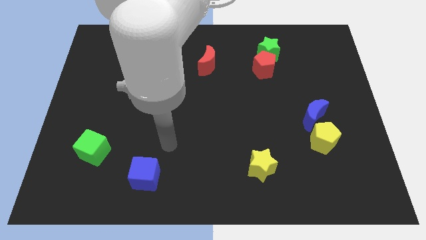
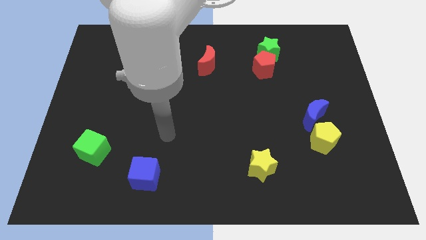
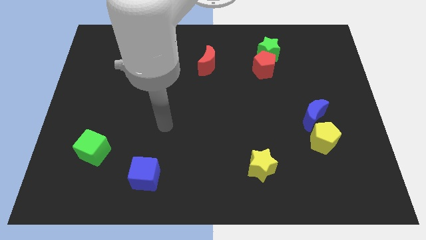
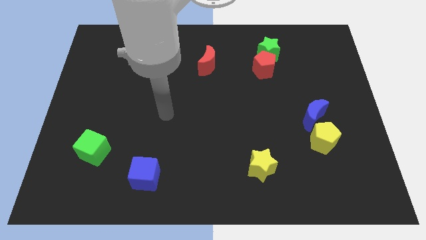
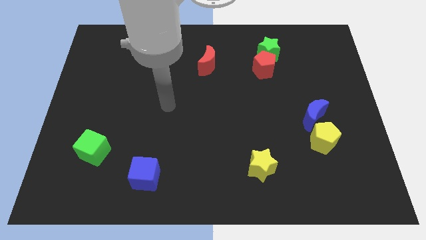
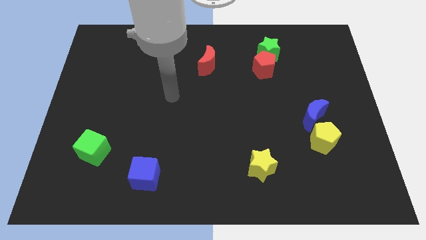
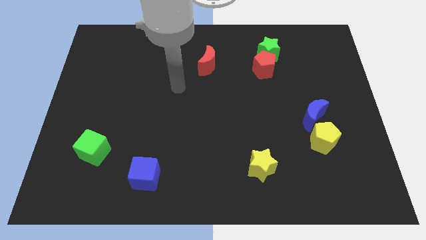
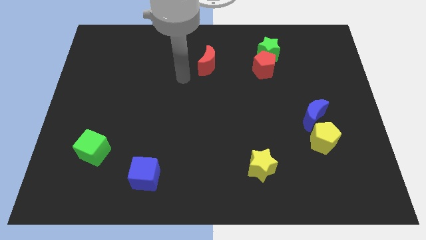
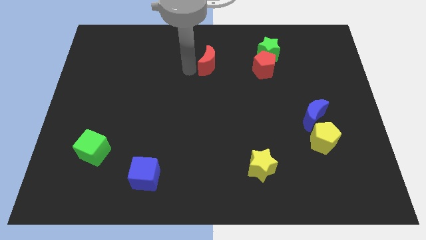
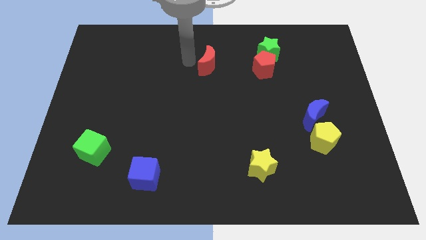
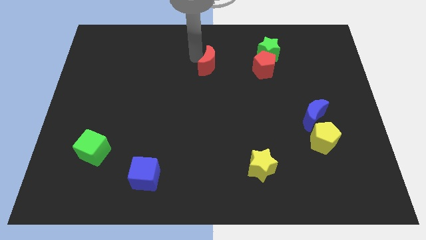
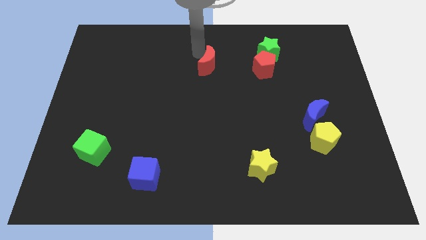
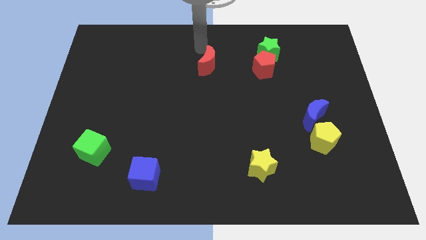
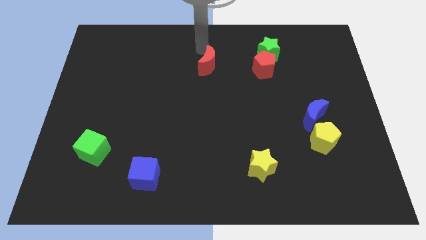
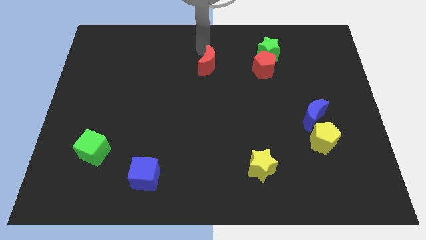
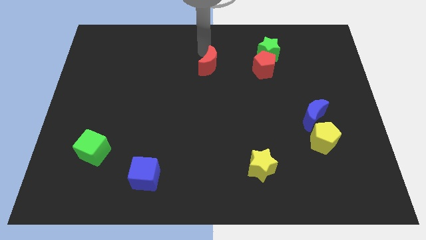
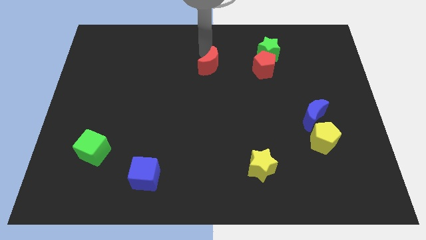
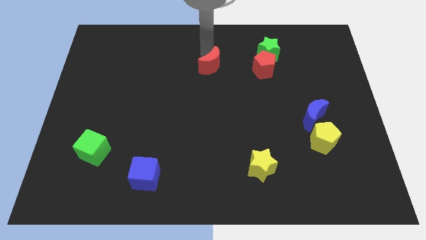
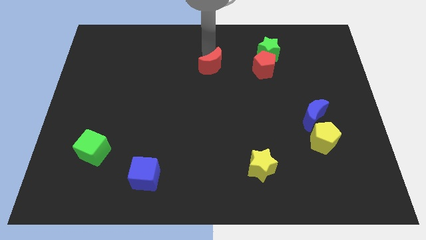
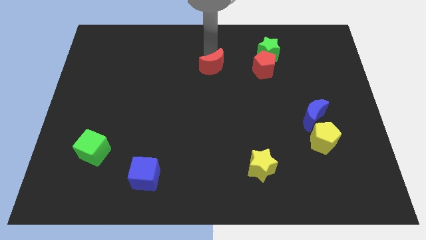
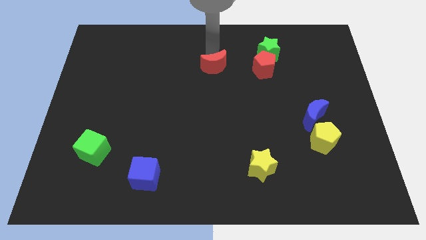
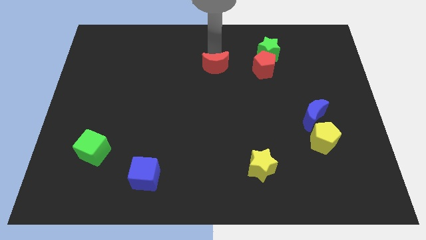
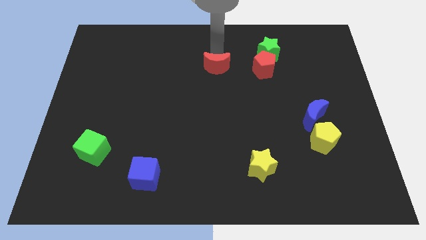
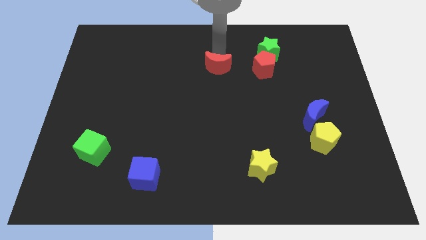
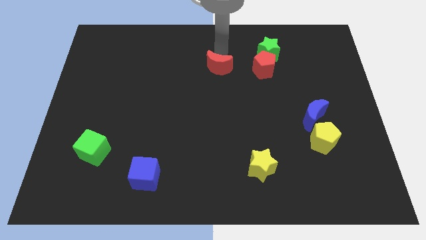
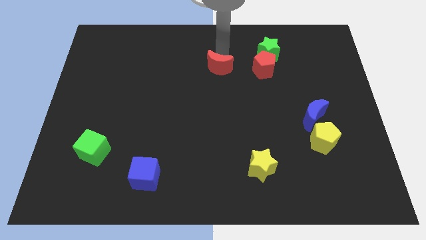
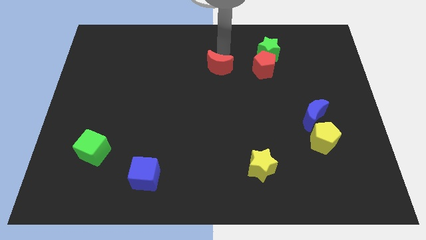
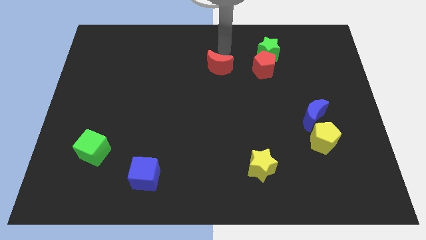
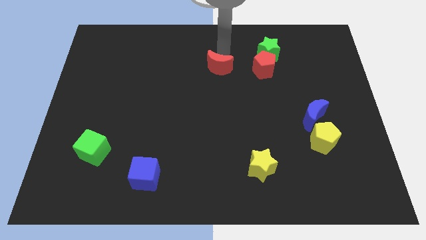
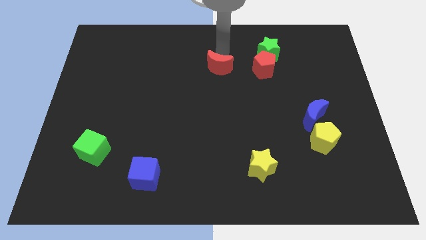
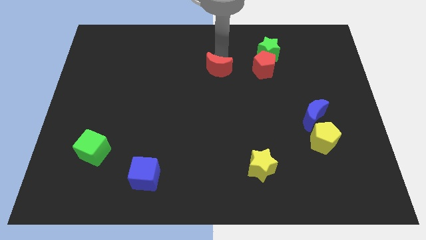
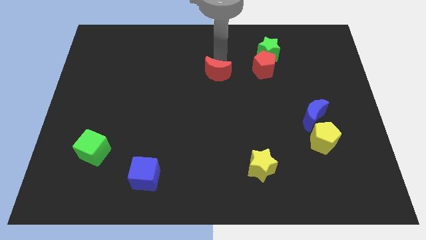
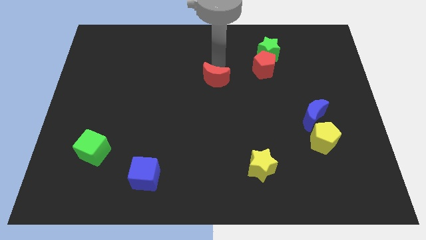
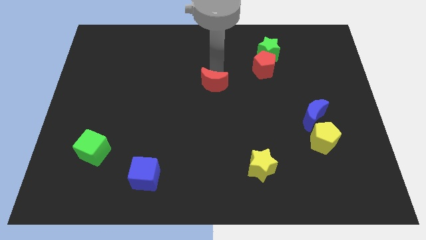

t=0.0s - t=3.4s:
slightly push the red moon down

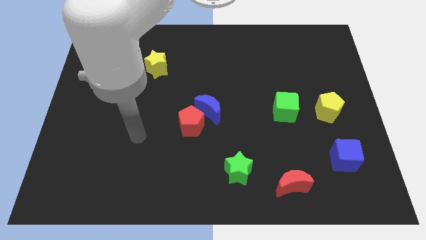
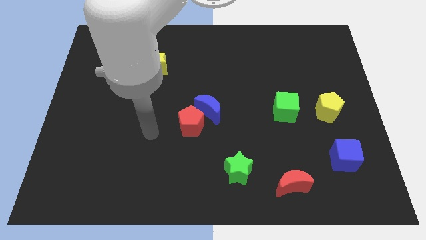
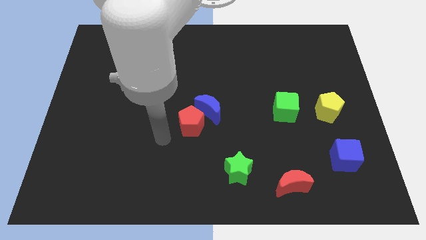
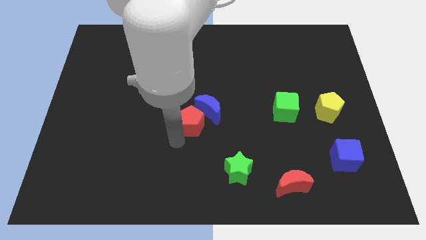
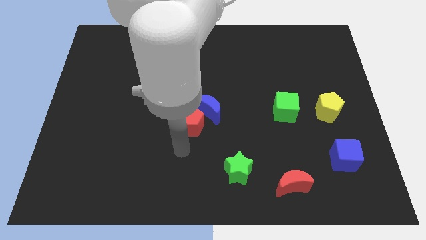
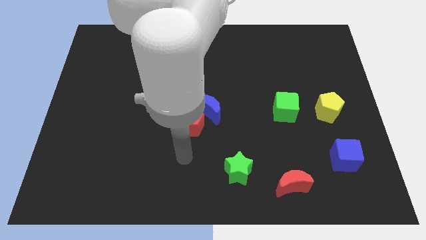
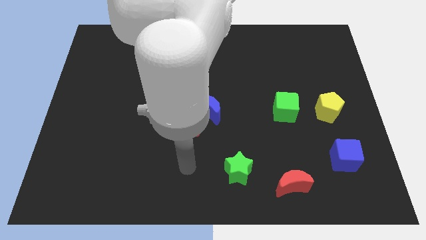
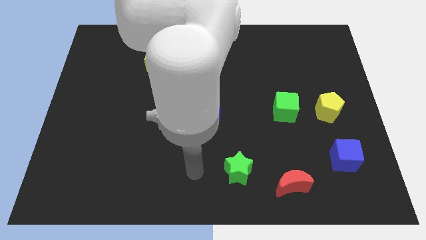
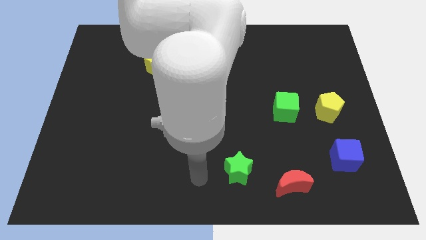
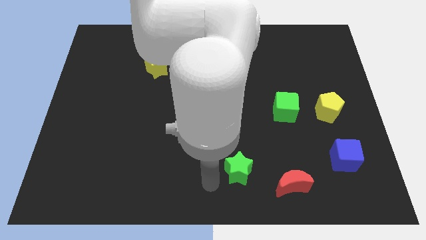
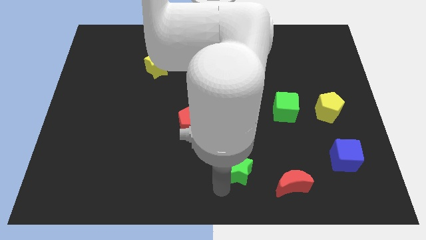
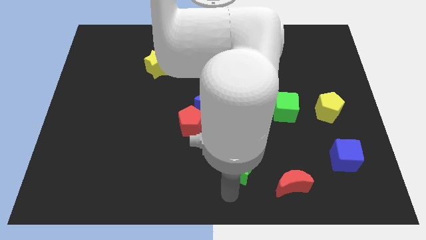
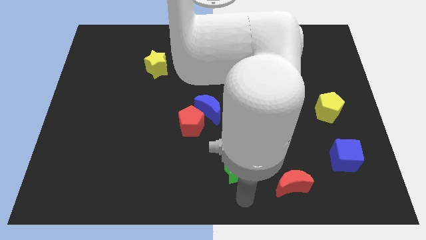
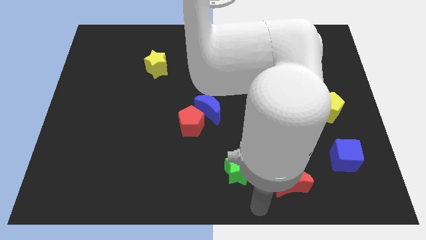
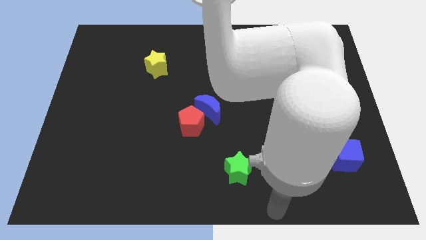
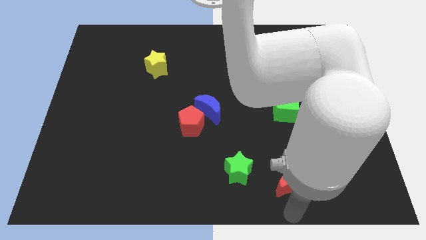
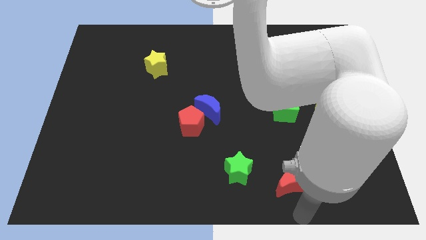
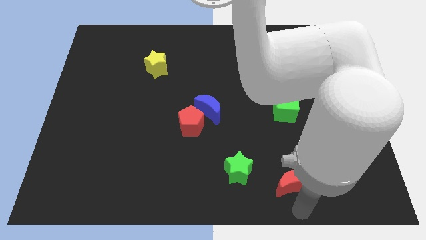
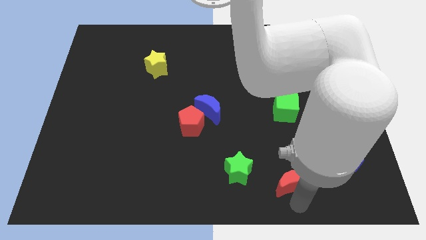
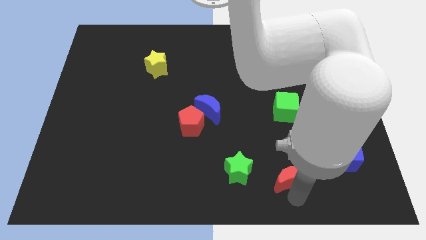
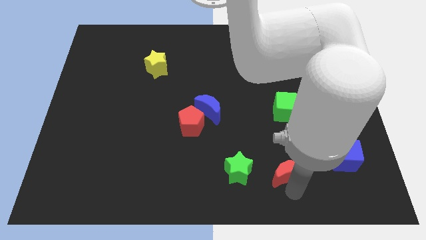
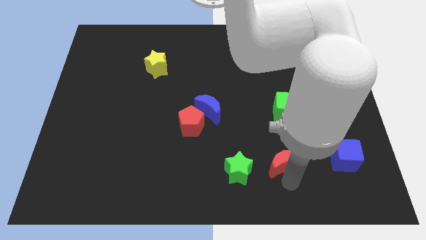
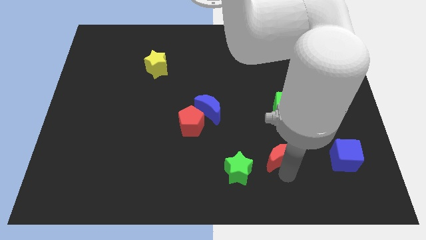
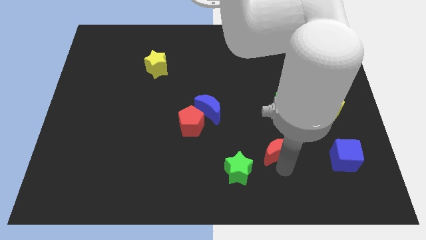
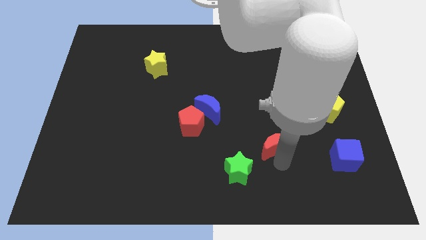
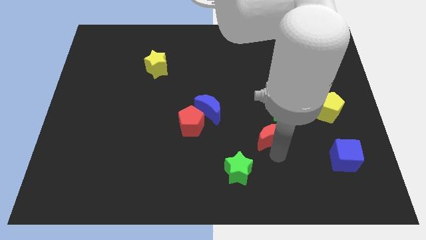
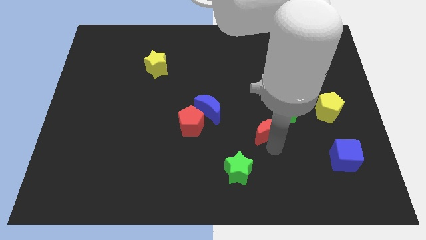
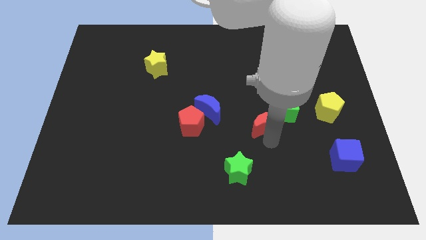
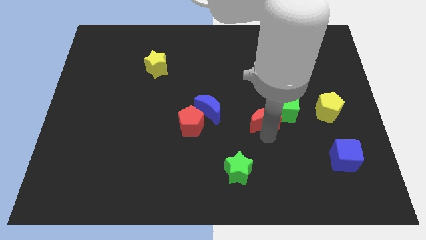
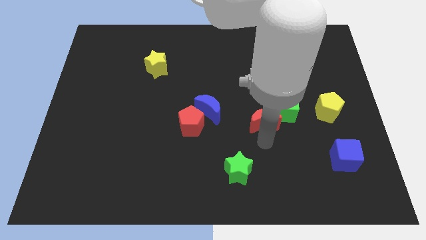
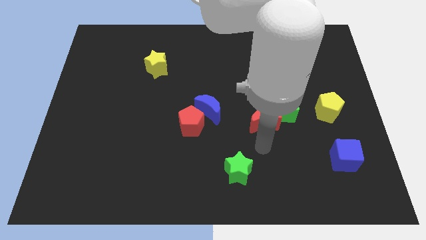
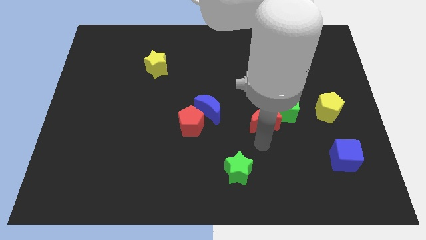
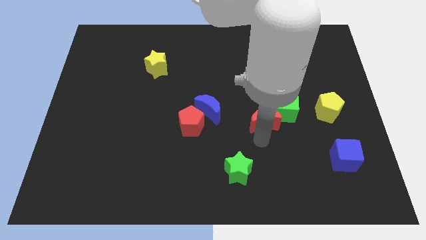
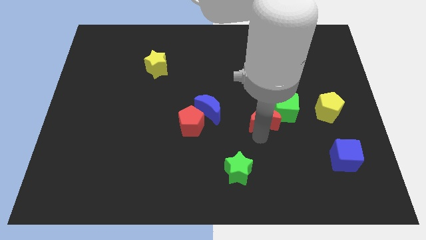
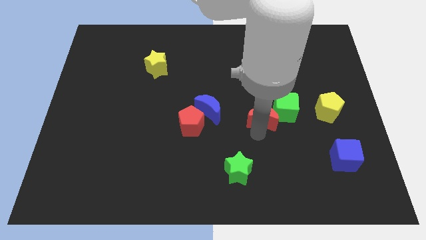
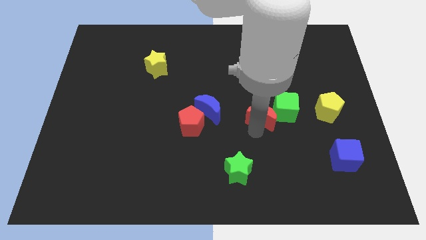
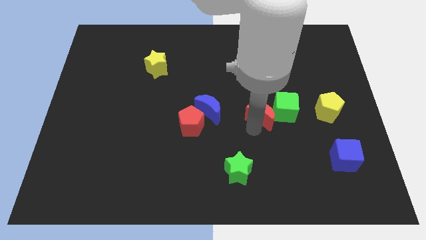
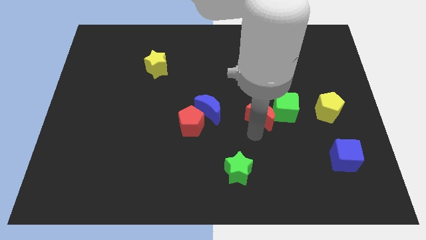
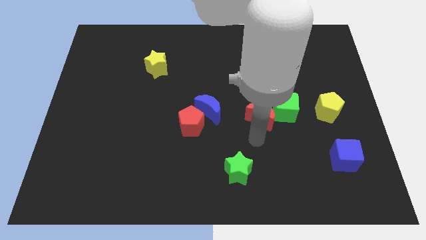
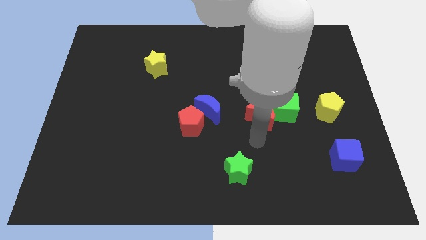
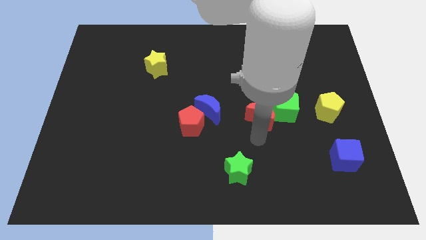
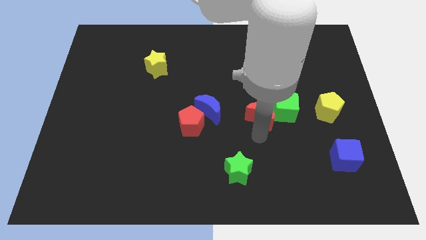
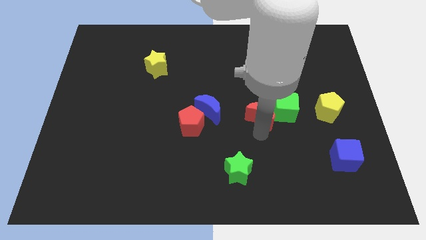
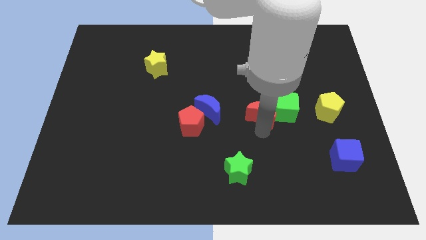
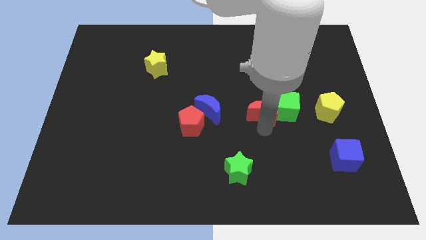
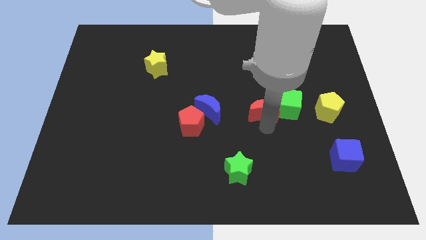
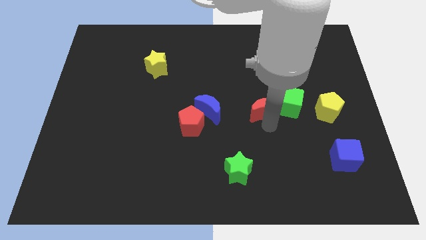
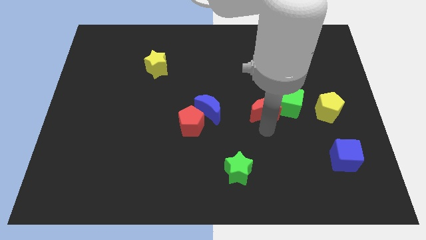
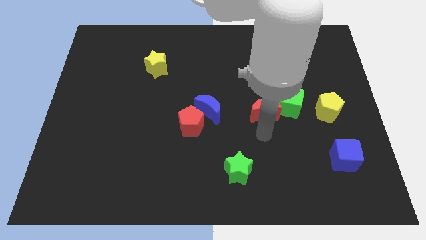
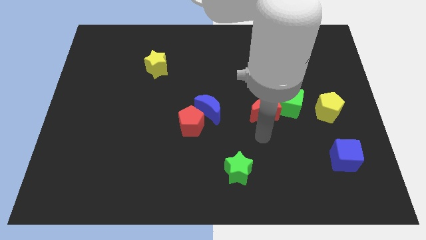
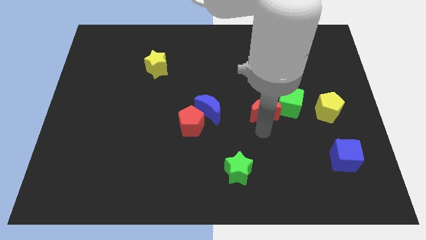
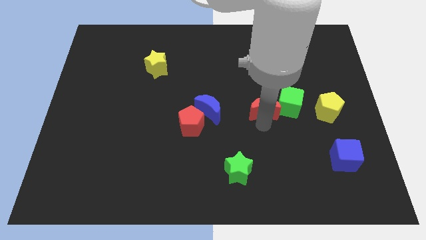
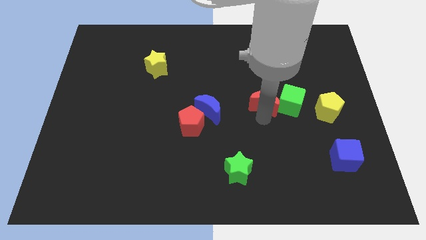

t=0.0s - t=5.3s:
slide the red moon up
